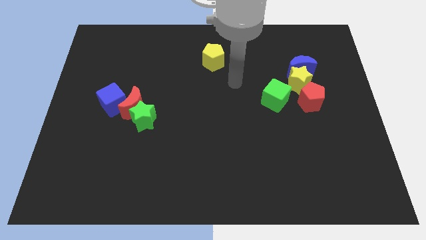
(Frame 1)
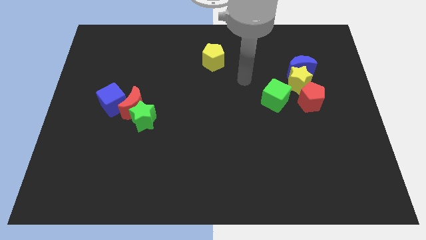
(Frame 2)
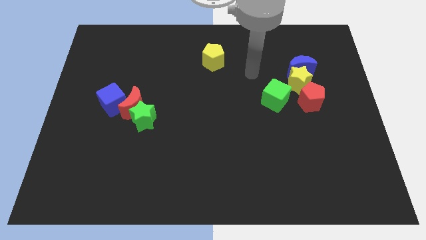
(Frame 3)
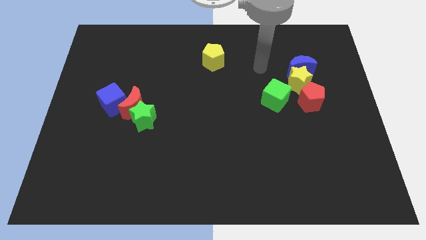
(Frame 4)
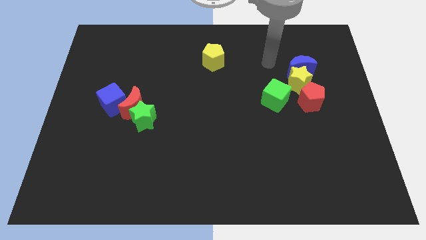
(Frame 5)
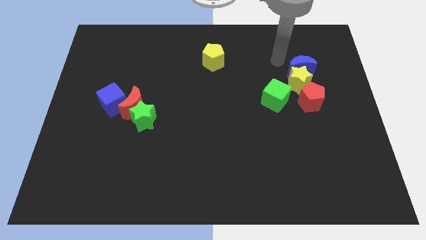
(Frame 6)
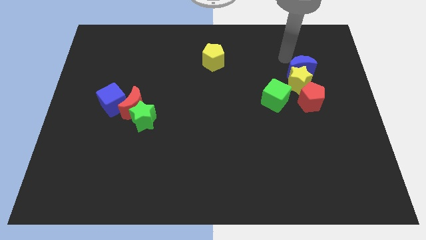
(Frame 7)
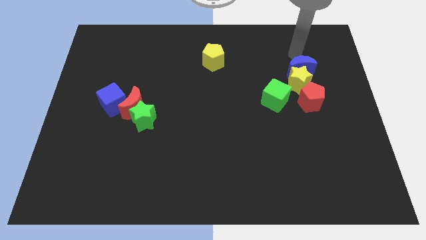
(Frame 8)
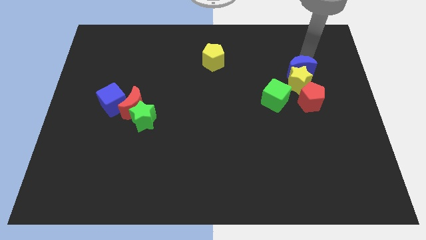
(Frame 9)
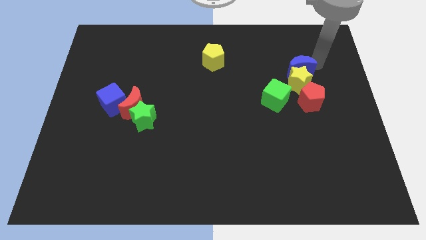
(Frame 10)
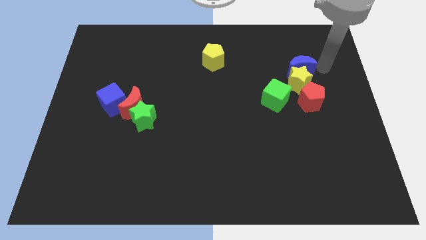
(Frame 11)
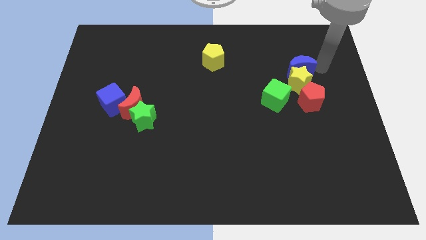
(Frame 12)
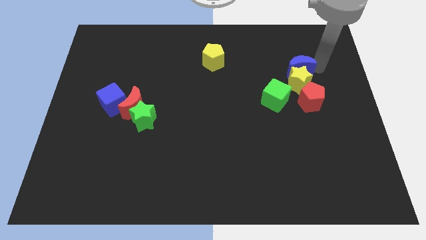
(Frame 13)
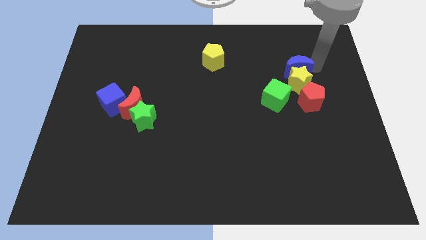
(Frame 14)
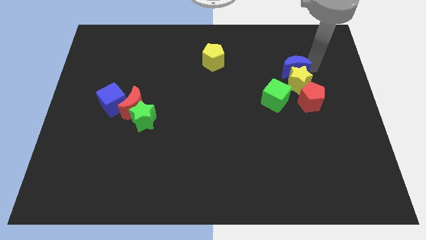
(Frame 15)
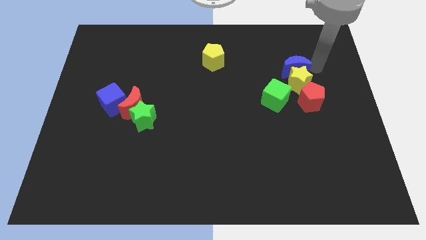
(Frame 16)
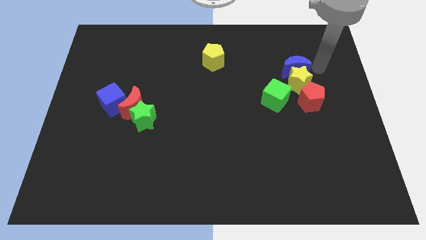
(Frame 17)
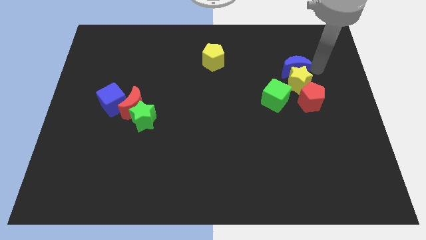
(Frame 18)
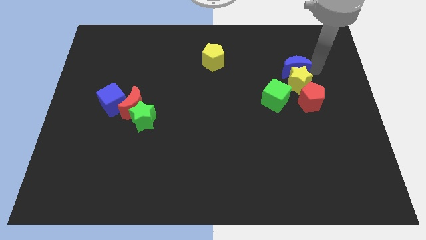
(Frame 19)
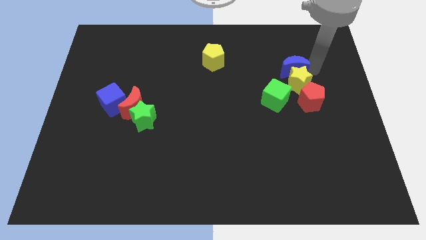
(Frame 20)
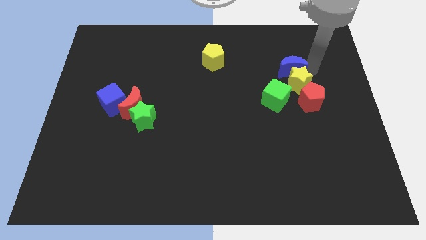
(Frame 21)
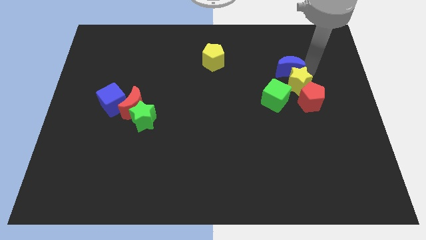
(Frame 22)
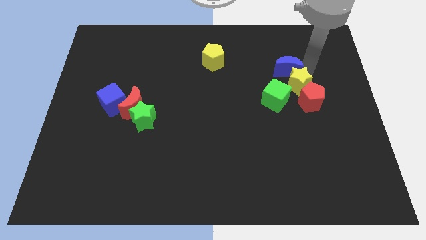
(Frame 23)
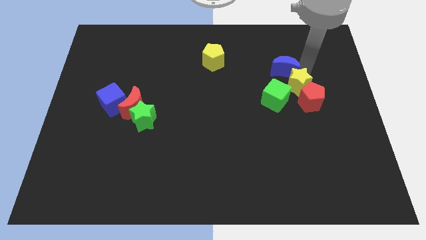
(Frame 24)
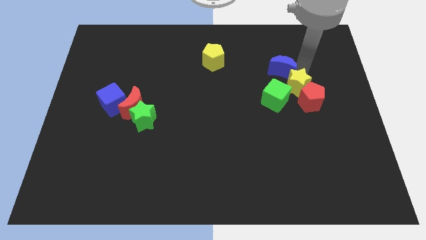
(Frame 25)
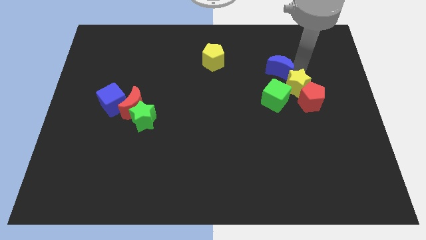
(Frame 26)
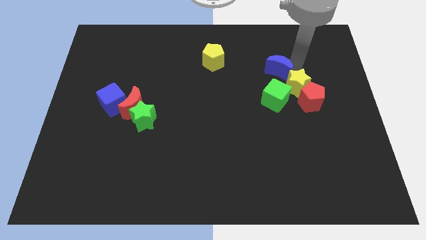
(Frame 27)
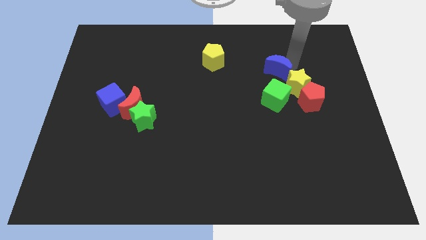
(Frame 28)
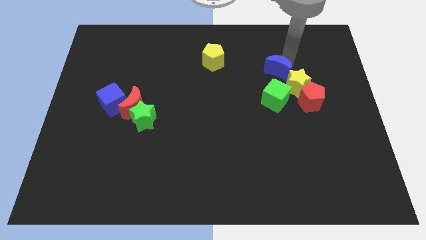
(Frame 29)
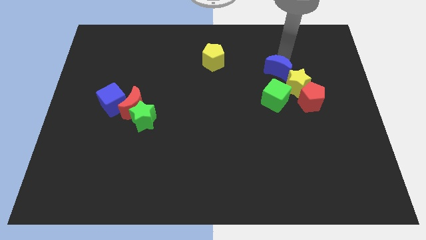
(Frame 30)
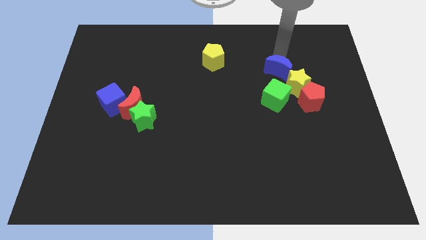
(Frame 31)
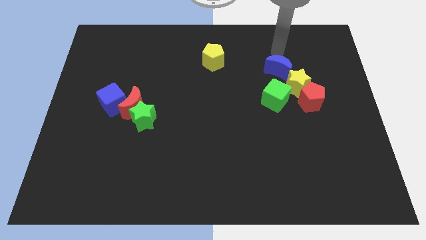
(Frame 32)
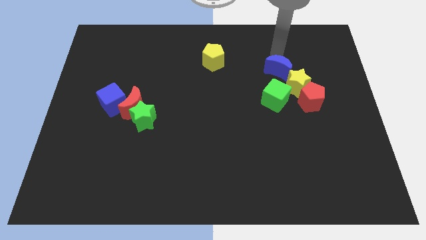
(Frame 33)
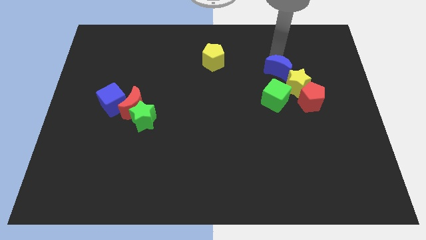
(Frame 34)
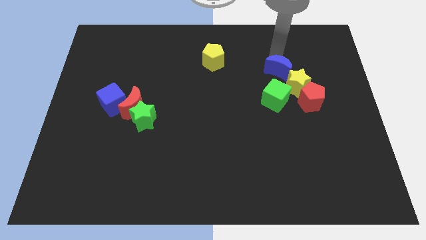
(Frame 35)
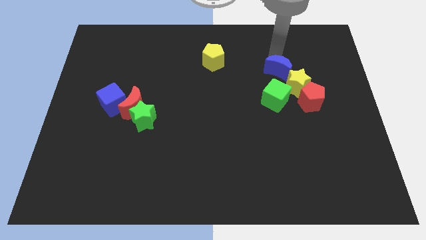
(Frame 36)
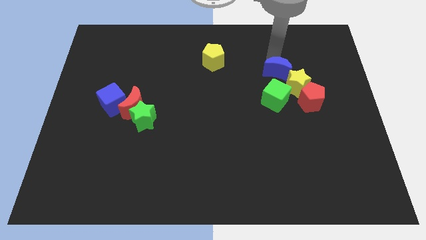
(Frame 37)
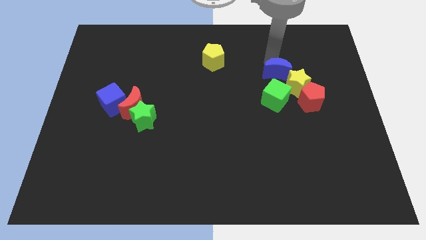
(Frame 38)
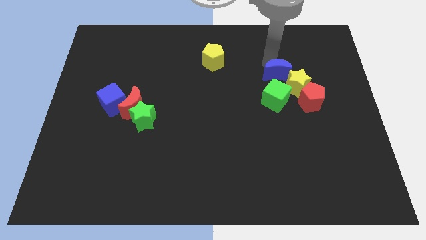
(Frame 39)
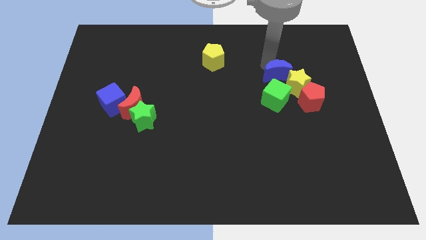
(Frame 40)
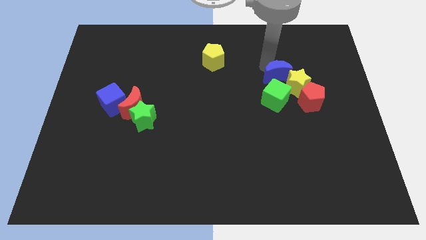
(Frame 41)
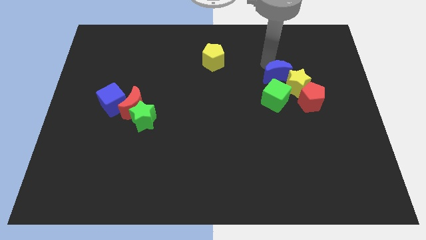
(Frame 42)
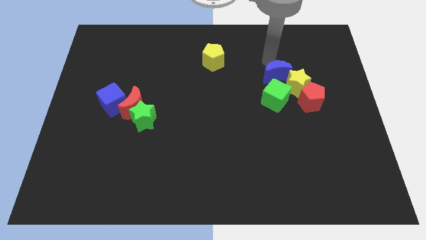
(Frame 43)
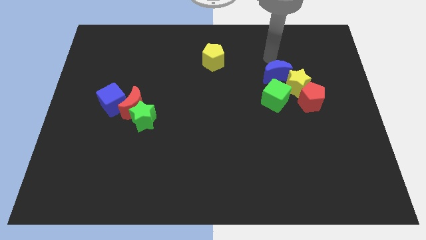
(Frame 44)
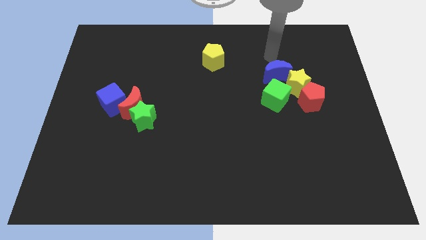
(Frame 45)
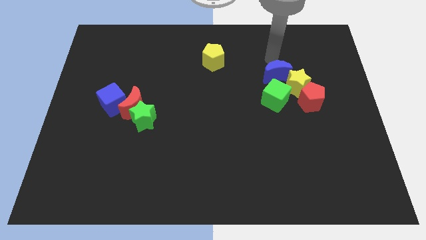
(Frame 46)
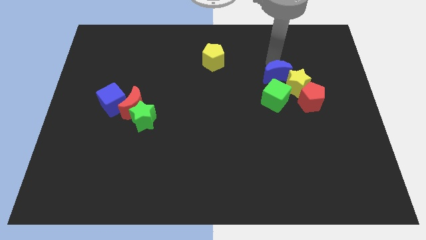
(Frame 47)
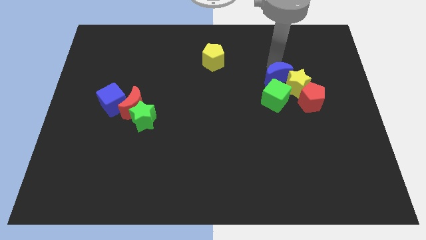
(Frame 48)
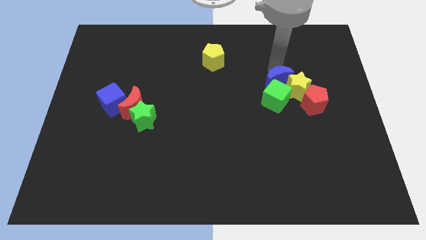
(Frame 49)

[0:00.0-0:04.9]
push the blue moon towards the green cube

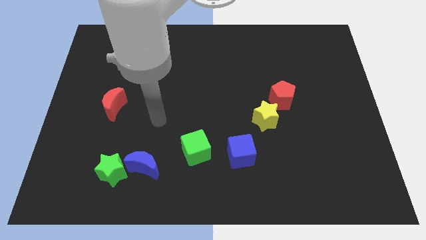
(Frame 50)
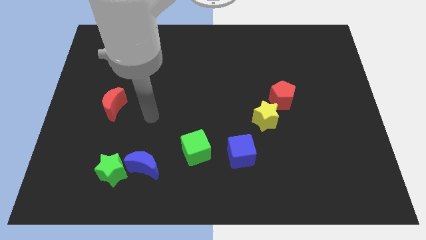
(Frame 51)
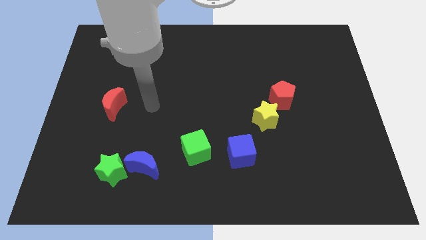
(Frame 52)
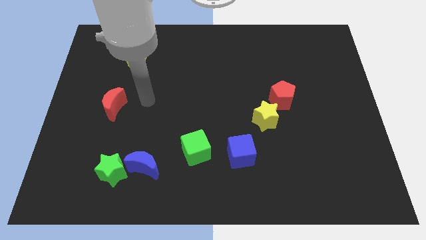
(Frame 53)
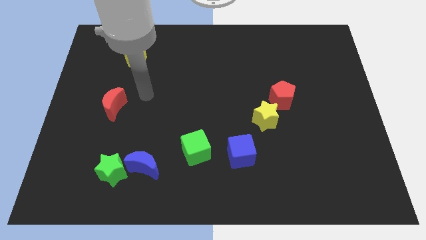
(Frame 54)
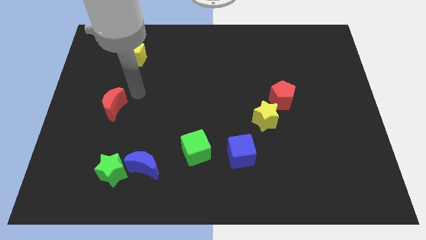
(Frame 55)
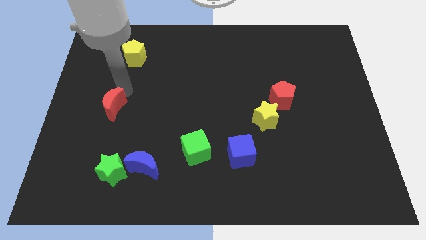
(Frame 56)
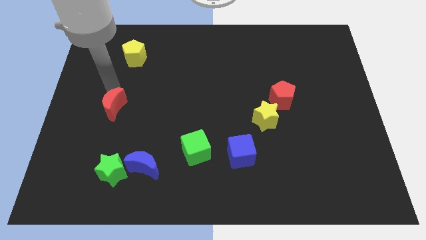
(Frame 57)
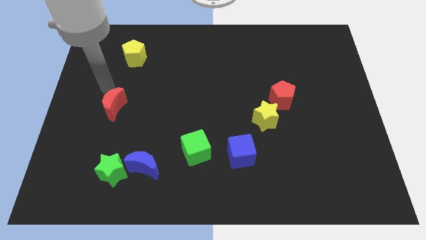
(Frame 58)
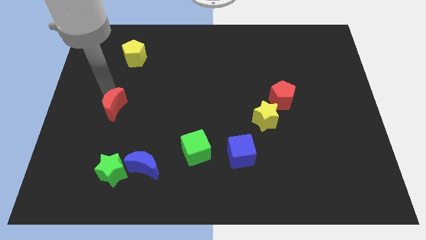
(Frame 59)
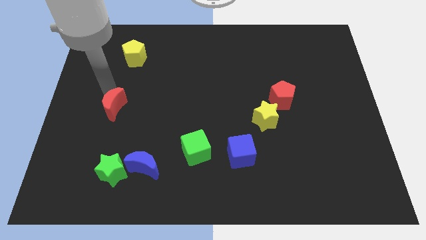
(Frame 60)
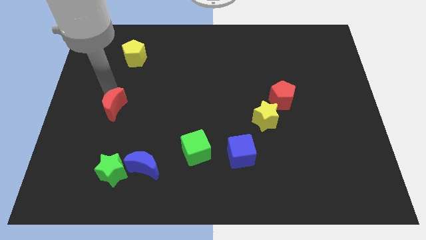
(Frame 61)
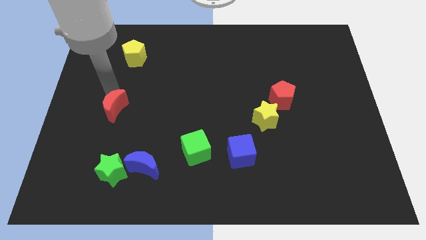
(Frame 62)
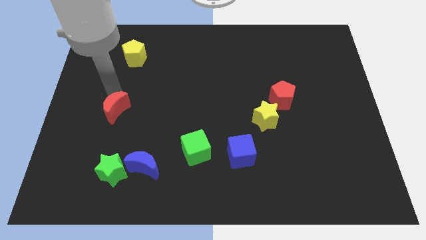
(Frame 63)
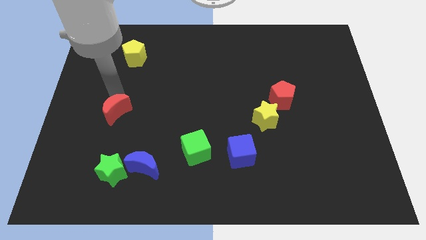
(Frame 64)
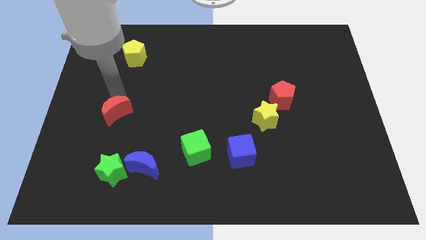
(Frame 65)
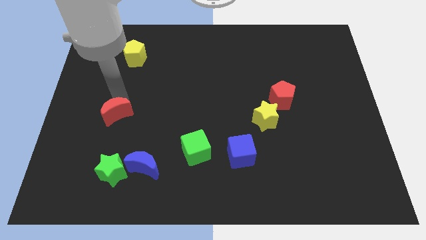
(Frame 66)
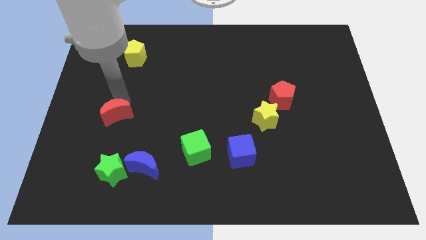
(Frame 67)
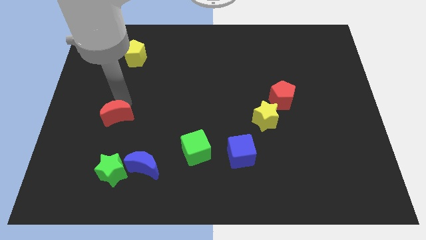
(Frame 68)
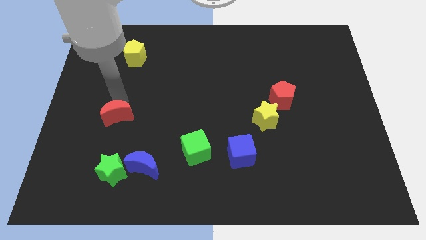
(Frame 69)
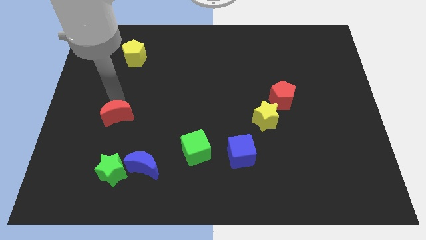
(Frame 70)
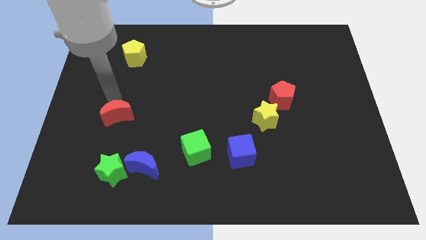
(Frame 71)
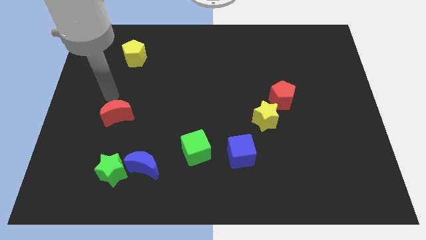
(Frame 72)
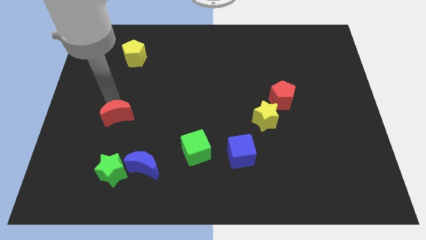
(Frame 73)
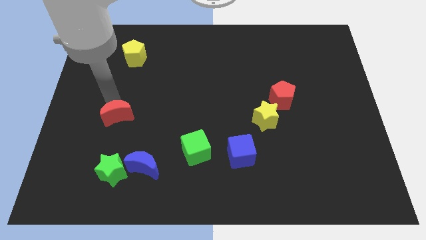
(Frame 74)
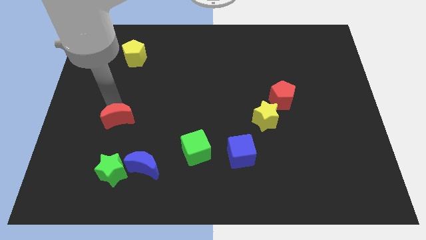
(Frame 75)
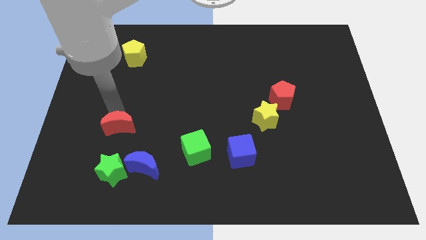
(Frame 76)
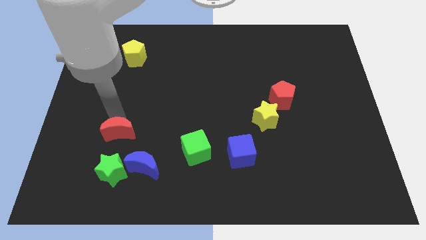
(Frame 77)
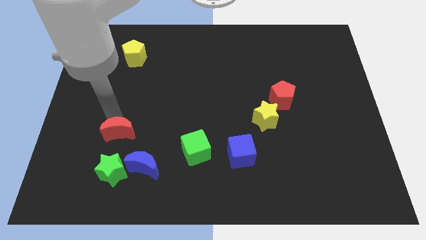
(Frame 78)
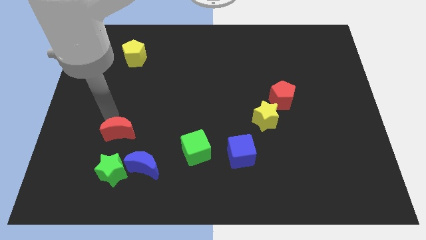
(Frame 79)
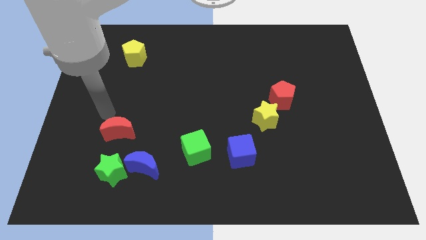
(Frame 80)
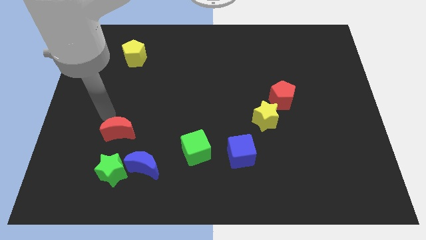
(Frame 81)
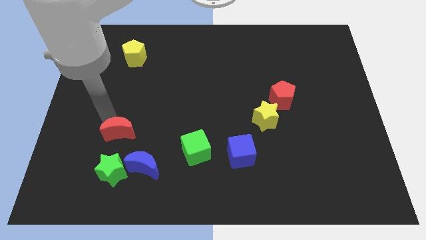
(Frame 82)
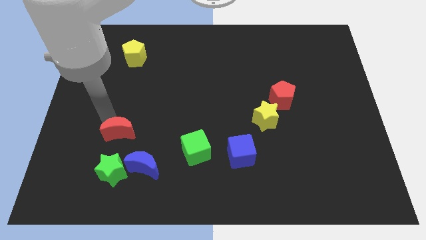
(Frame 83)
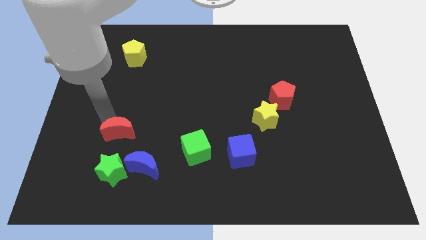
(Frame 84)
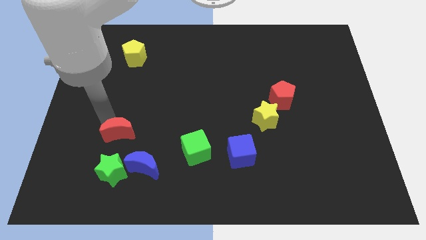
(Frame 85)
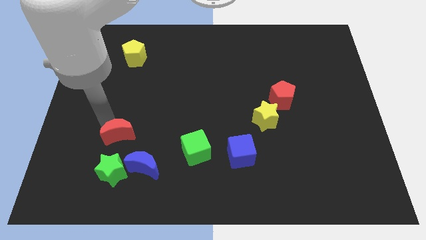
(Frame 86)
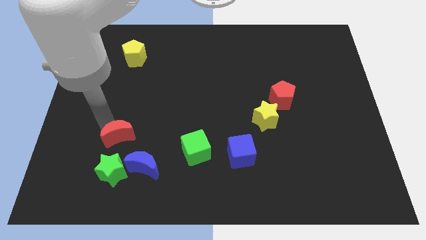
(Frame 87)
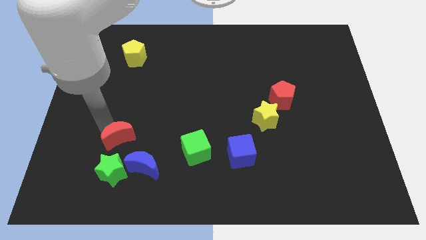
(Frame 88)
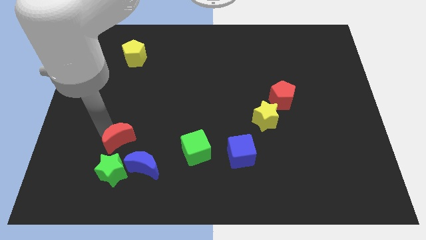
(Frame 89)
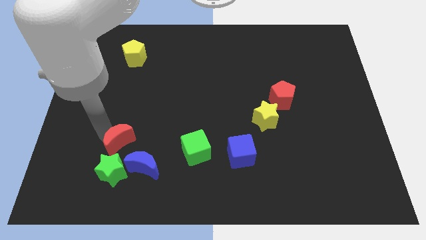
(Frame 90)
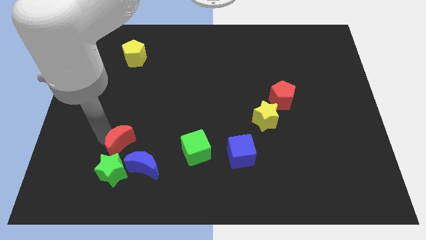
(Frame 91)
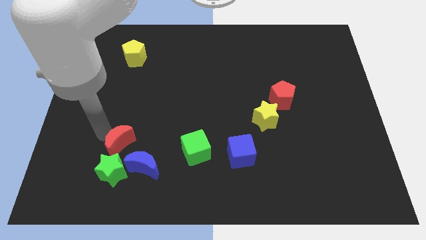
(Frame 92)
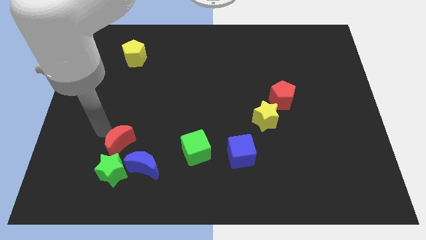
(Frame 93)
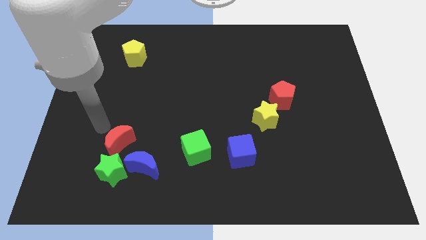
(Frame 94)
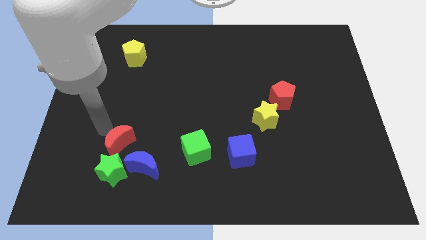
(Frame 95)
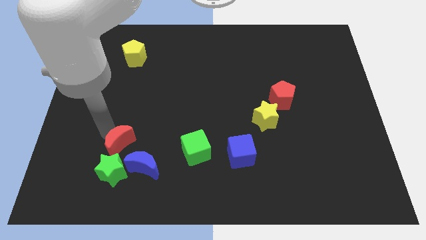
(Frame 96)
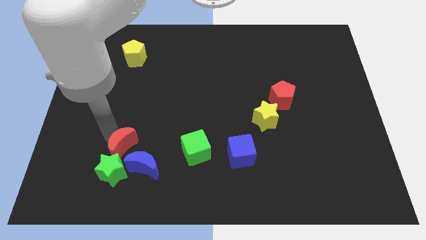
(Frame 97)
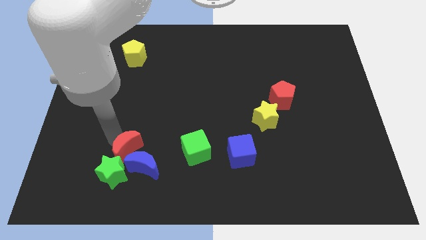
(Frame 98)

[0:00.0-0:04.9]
put the red moon towards the blue moon
